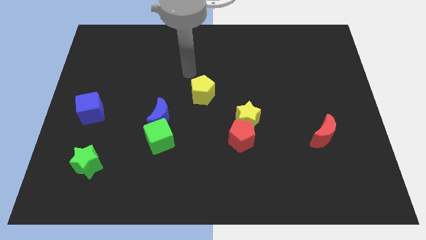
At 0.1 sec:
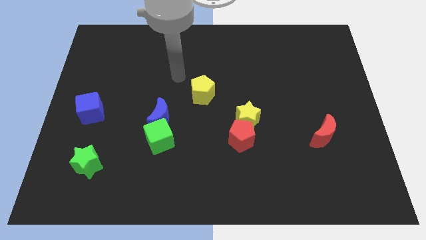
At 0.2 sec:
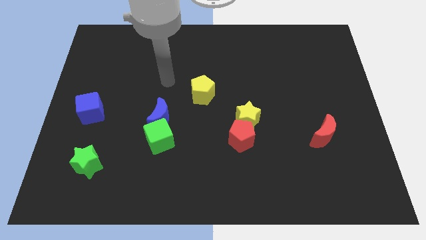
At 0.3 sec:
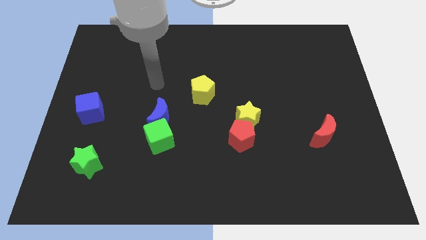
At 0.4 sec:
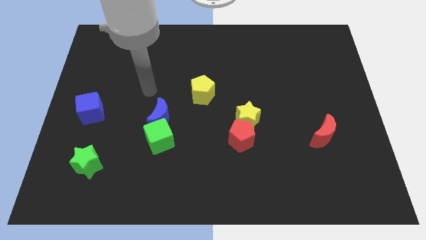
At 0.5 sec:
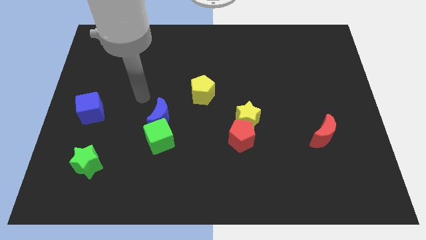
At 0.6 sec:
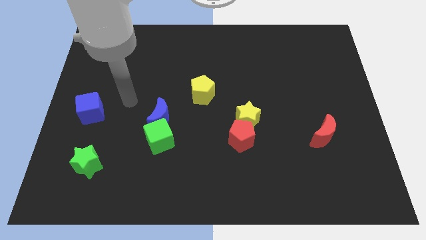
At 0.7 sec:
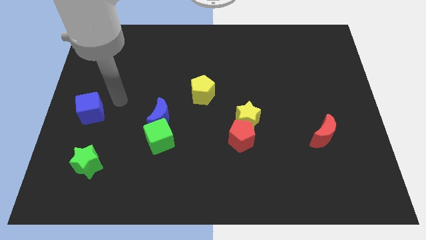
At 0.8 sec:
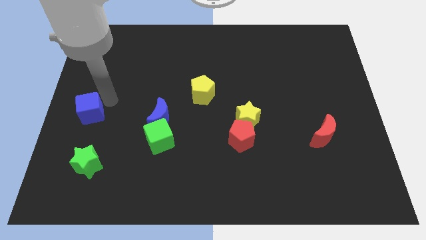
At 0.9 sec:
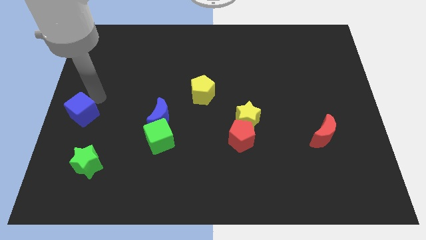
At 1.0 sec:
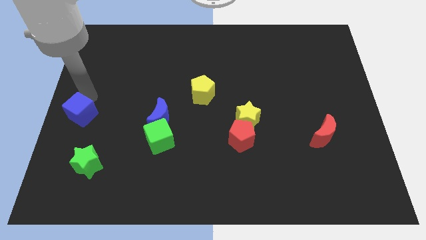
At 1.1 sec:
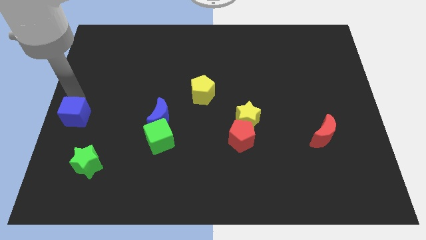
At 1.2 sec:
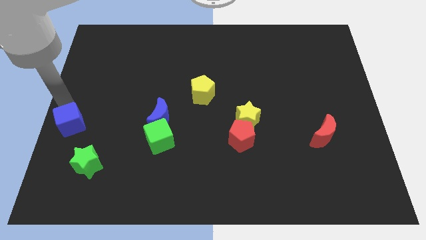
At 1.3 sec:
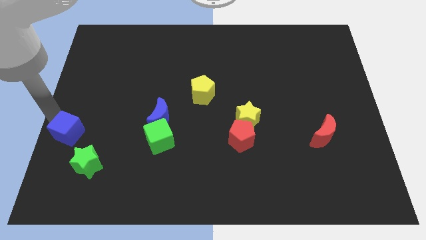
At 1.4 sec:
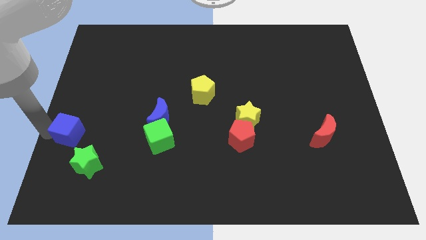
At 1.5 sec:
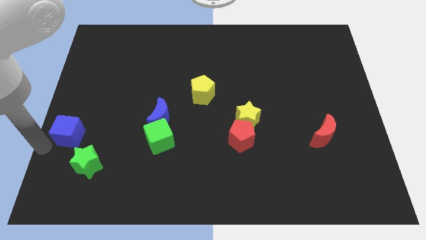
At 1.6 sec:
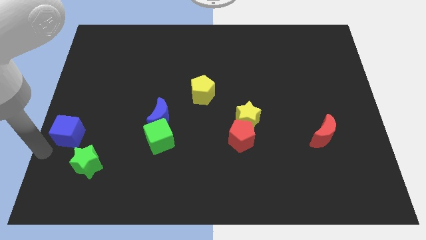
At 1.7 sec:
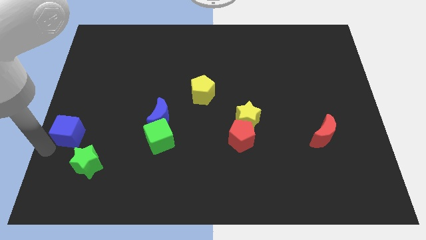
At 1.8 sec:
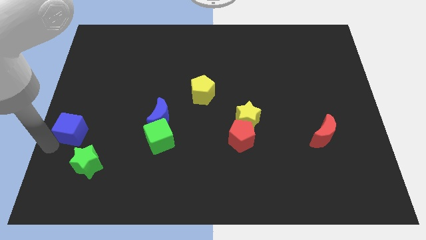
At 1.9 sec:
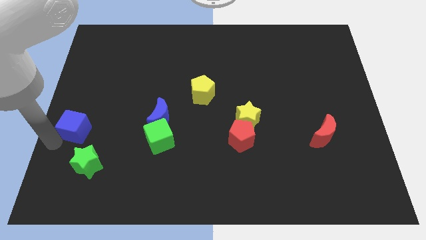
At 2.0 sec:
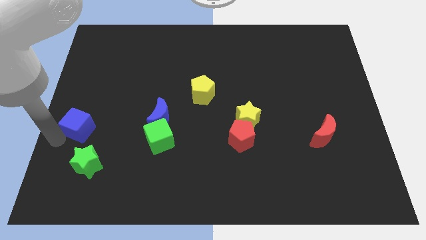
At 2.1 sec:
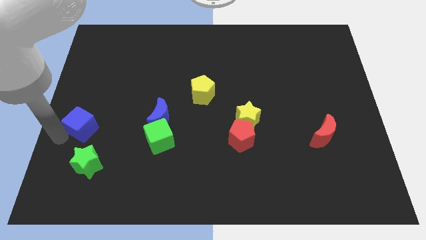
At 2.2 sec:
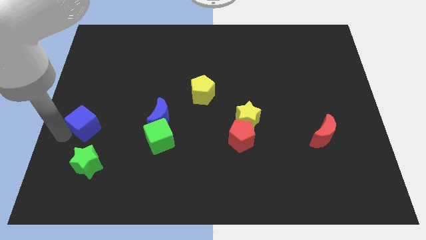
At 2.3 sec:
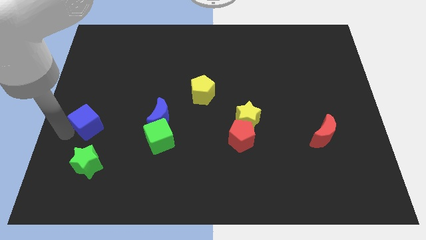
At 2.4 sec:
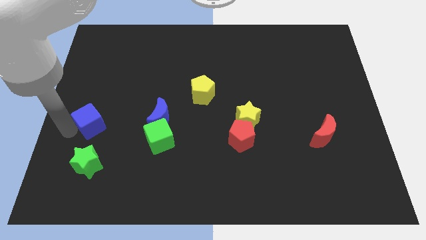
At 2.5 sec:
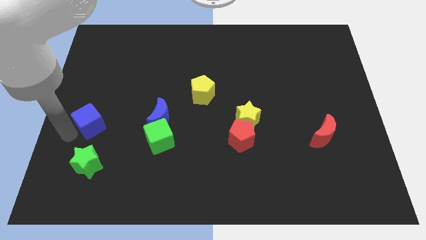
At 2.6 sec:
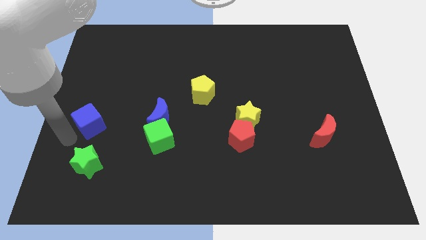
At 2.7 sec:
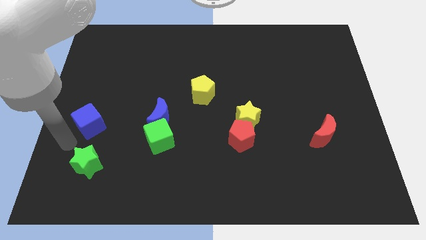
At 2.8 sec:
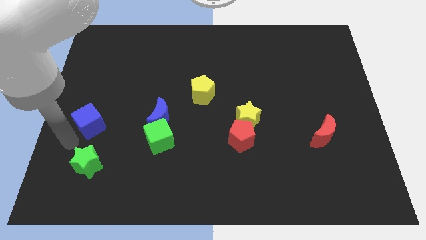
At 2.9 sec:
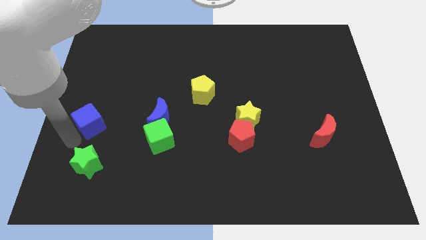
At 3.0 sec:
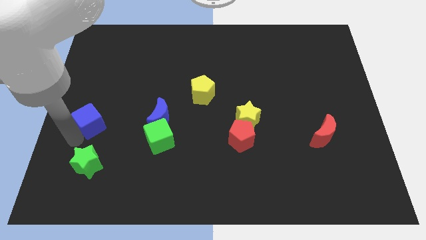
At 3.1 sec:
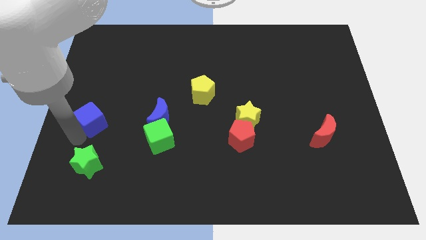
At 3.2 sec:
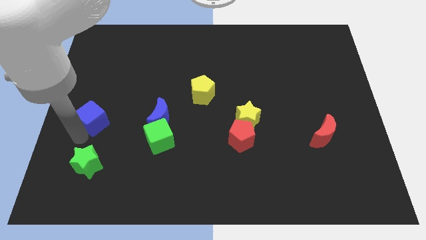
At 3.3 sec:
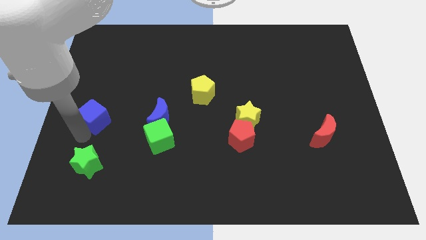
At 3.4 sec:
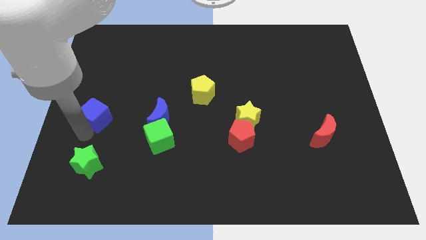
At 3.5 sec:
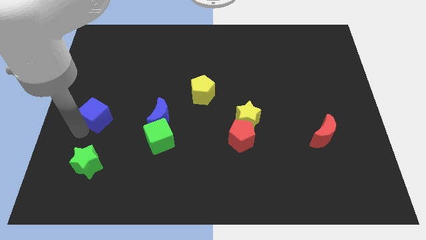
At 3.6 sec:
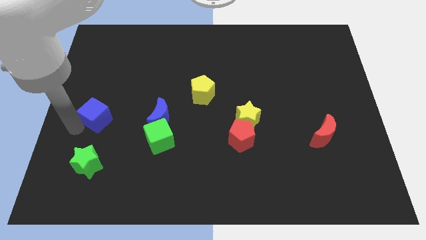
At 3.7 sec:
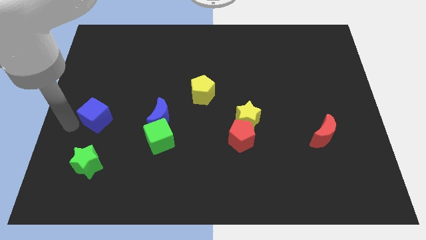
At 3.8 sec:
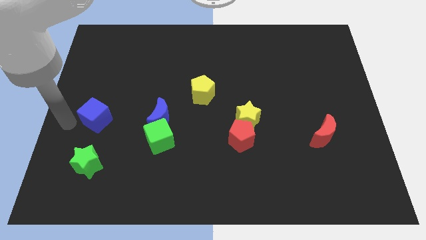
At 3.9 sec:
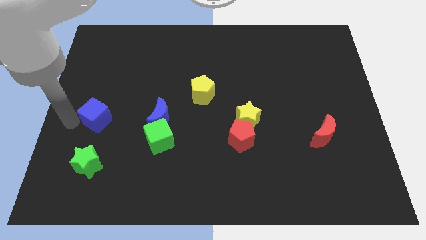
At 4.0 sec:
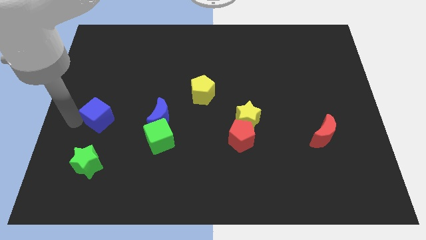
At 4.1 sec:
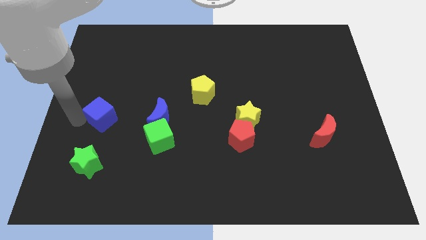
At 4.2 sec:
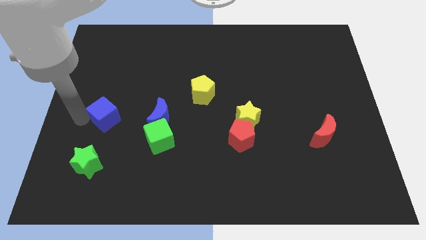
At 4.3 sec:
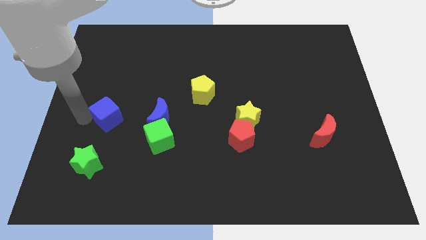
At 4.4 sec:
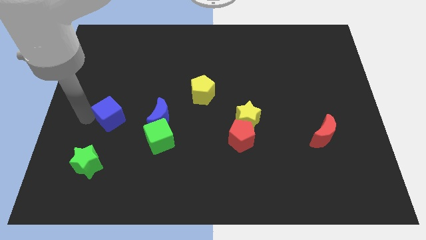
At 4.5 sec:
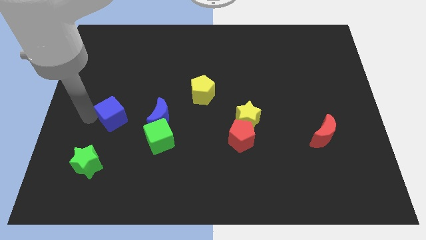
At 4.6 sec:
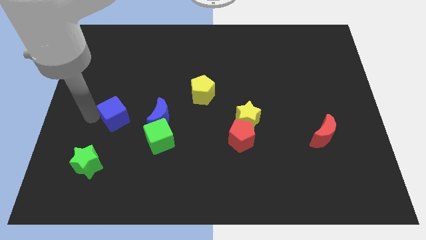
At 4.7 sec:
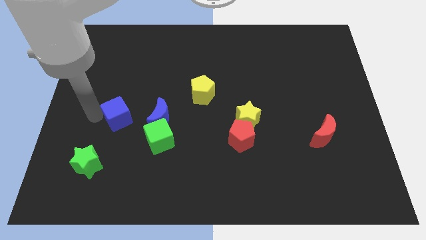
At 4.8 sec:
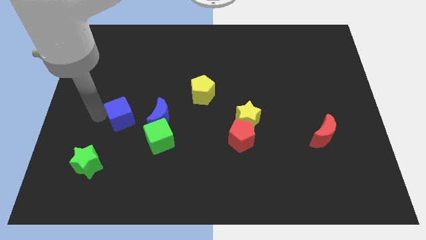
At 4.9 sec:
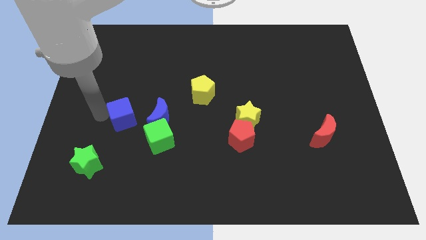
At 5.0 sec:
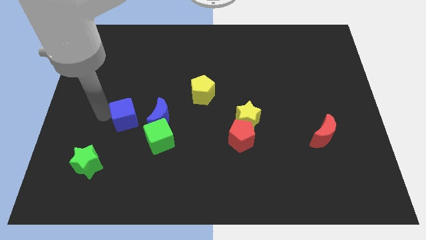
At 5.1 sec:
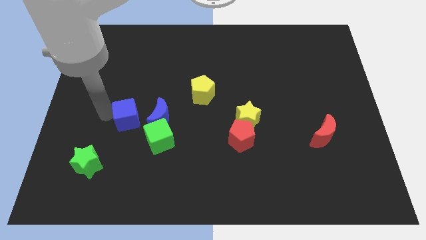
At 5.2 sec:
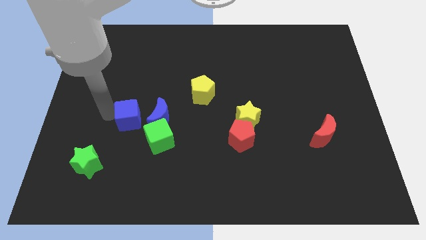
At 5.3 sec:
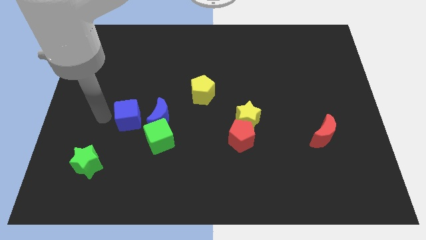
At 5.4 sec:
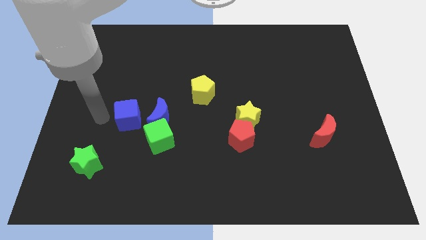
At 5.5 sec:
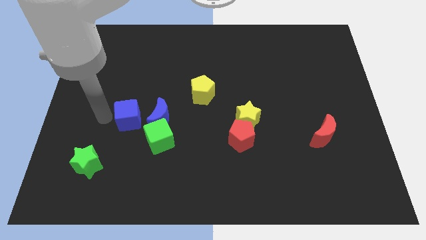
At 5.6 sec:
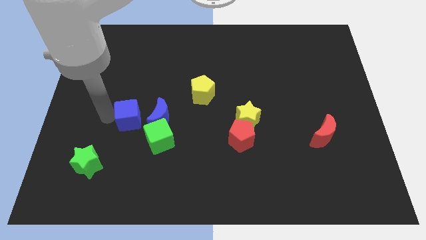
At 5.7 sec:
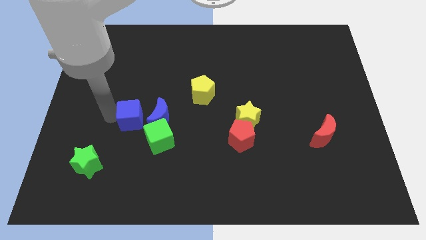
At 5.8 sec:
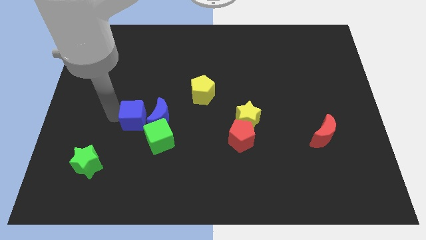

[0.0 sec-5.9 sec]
slide the blue cube to the blue moon
